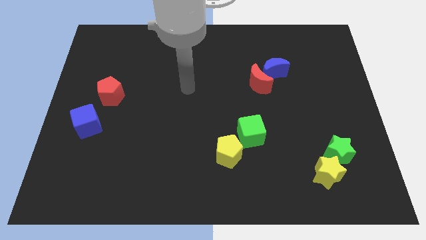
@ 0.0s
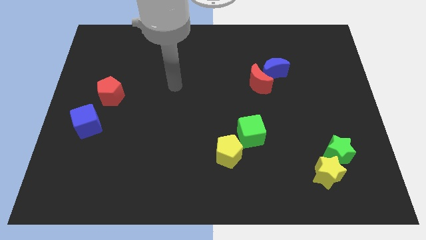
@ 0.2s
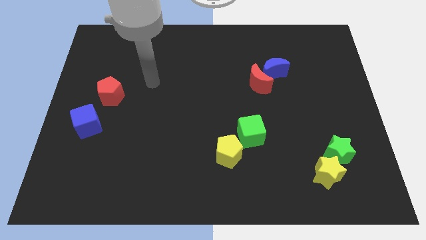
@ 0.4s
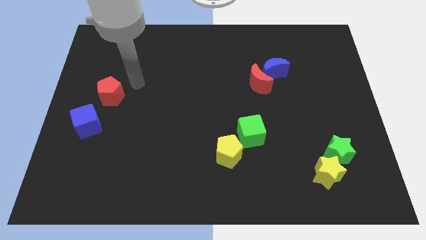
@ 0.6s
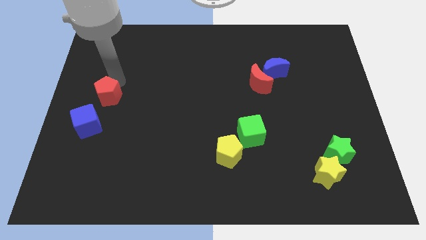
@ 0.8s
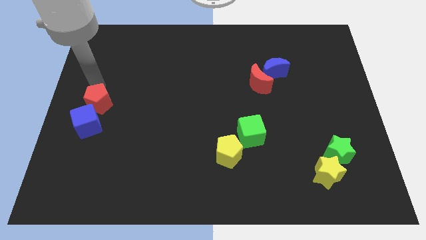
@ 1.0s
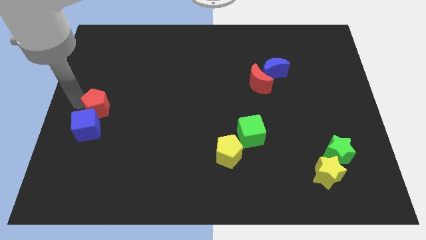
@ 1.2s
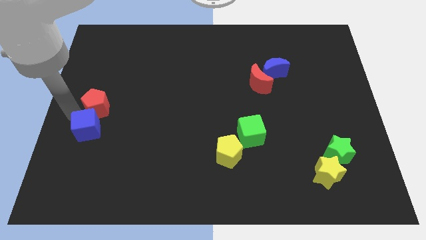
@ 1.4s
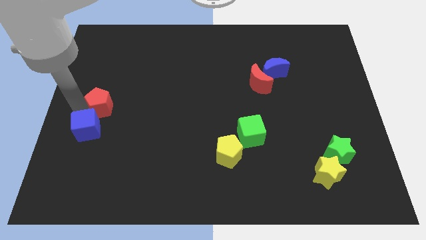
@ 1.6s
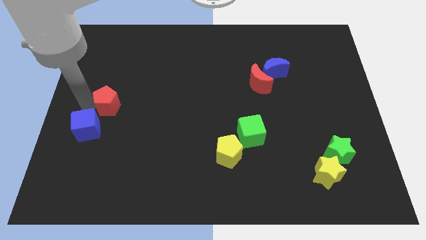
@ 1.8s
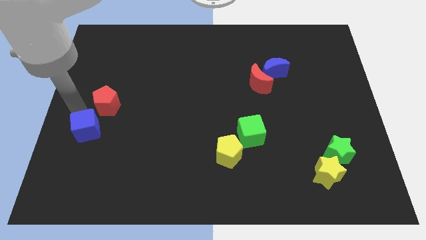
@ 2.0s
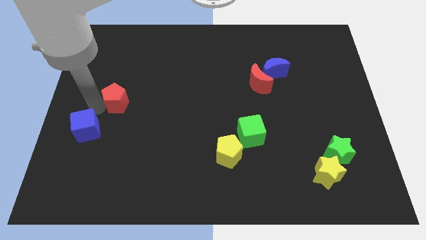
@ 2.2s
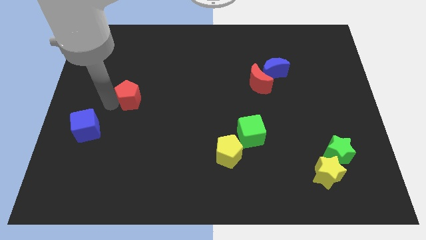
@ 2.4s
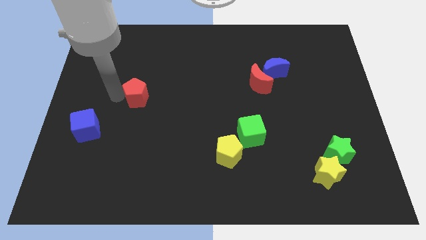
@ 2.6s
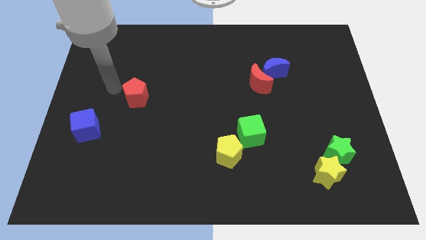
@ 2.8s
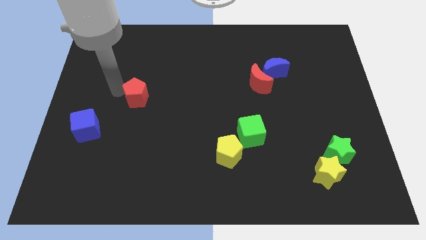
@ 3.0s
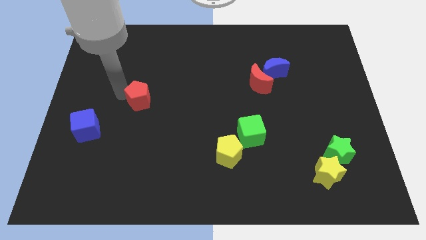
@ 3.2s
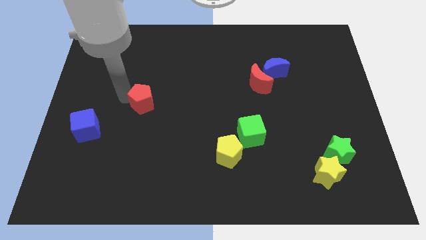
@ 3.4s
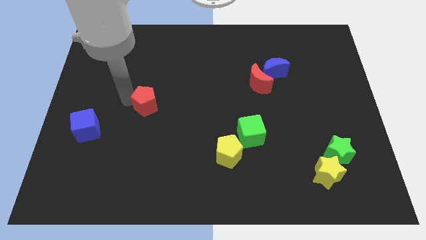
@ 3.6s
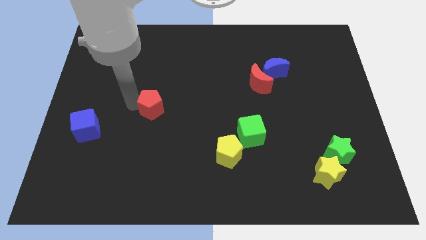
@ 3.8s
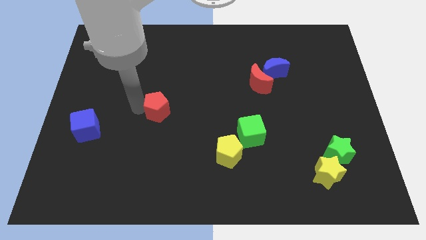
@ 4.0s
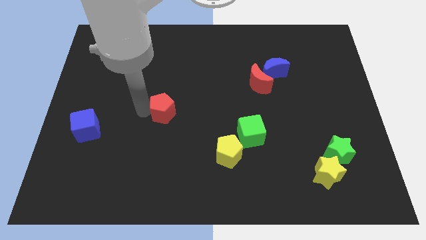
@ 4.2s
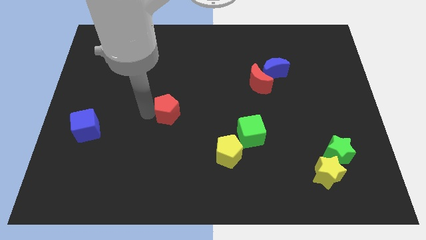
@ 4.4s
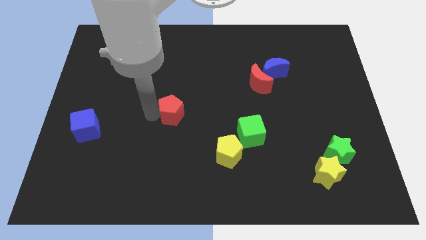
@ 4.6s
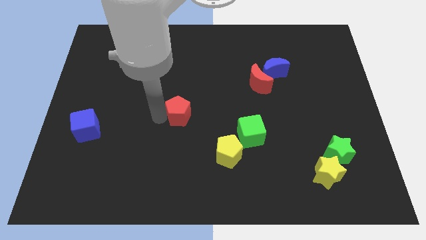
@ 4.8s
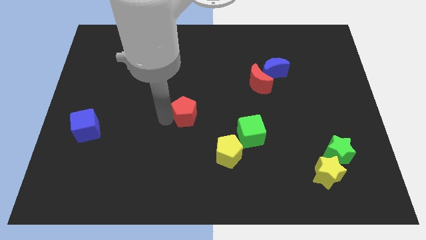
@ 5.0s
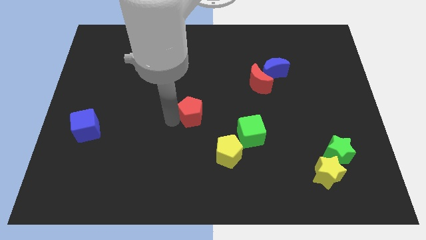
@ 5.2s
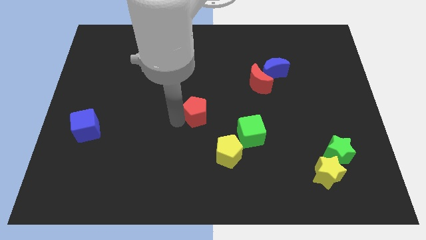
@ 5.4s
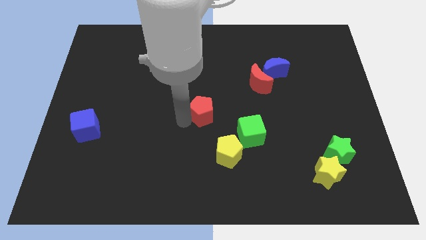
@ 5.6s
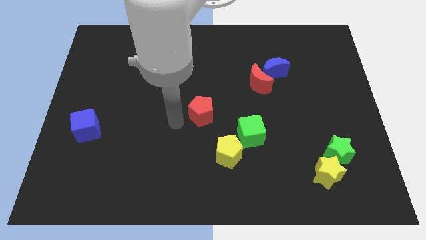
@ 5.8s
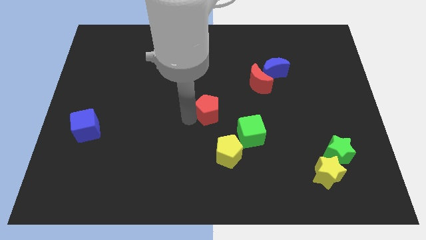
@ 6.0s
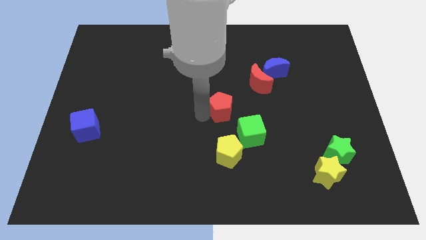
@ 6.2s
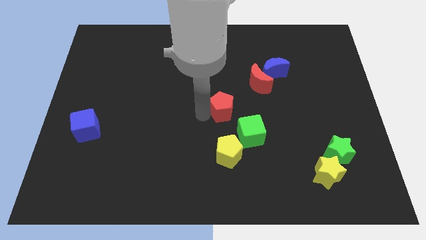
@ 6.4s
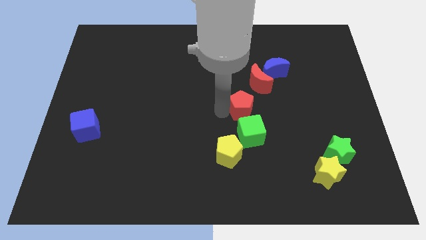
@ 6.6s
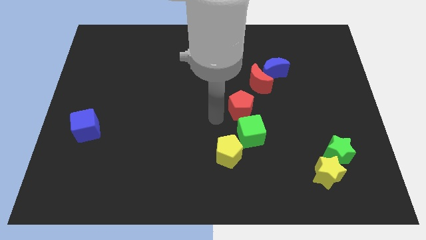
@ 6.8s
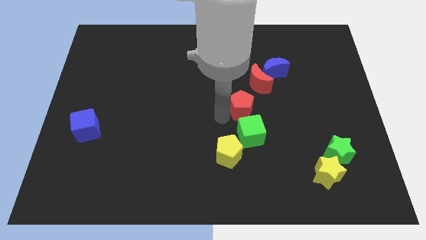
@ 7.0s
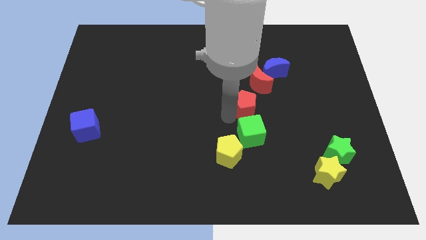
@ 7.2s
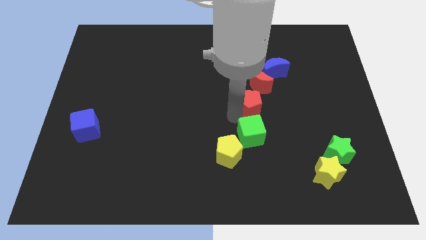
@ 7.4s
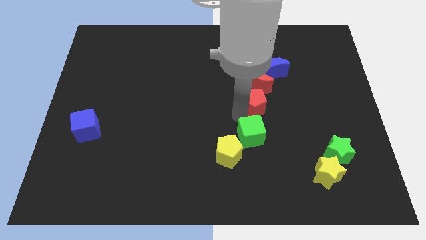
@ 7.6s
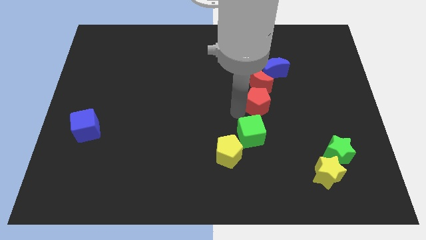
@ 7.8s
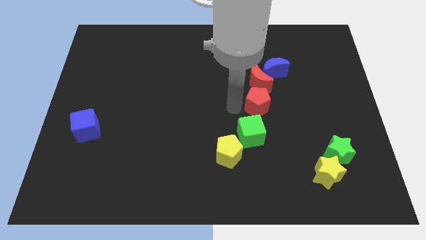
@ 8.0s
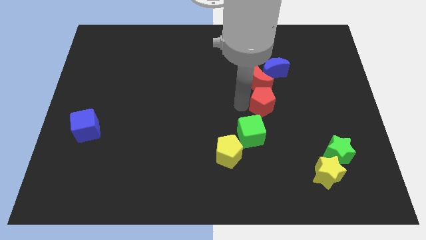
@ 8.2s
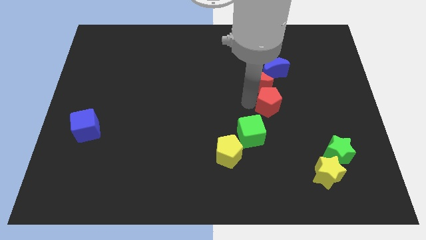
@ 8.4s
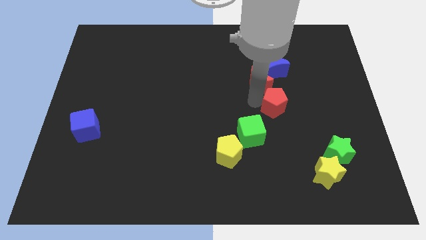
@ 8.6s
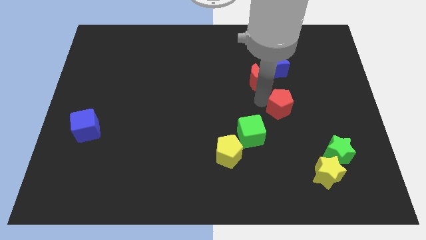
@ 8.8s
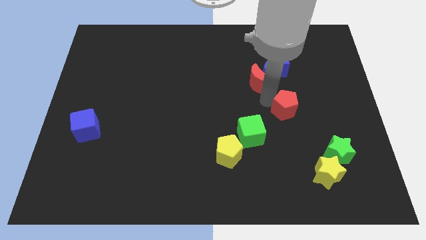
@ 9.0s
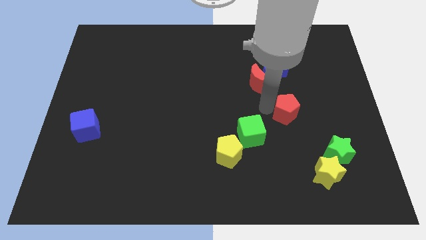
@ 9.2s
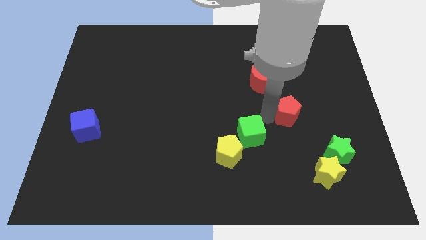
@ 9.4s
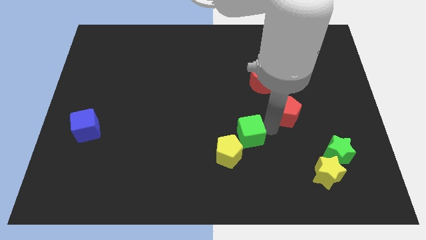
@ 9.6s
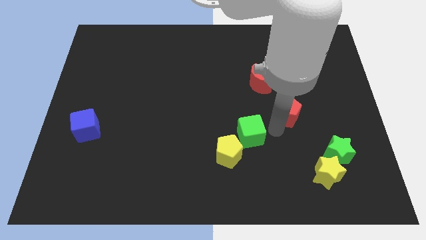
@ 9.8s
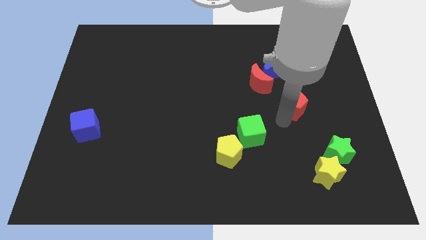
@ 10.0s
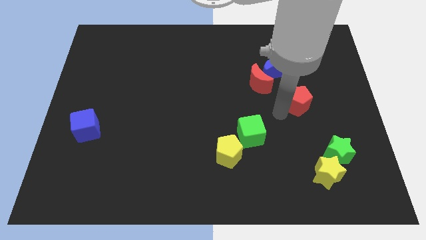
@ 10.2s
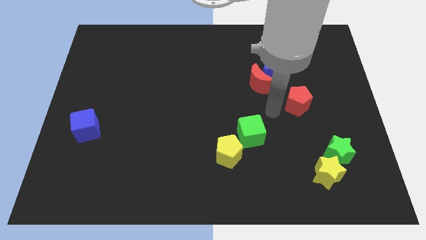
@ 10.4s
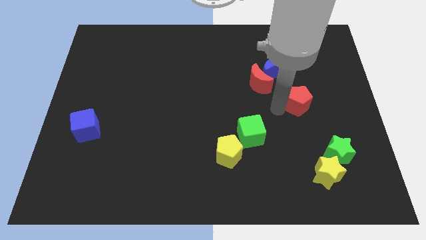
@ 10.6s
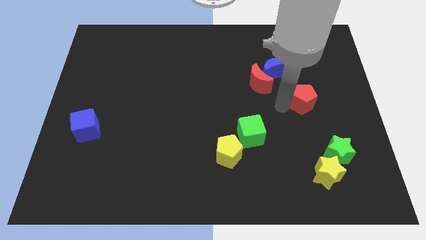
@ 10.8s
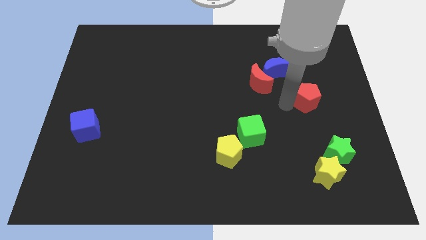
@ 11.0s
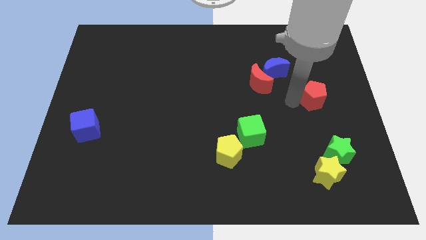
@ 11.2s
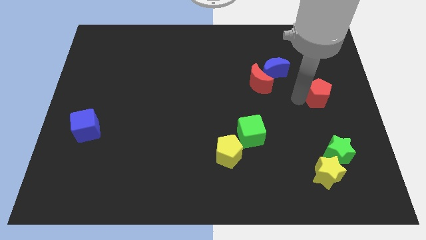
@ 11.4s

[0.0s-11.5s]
move the red pentagon to the center right
